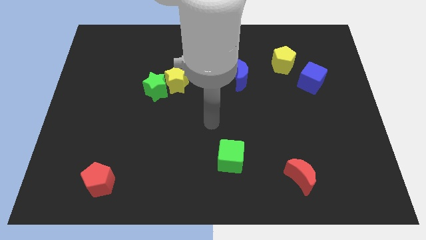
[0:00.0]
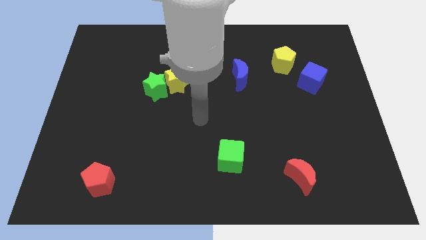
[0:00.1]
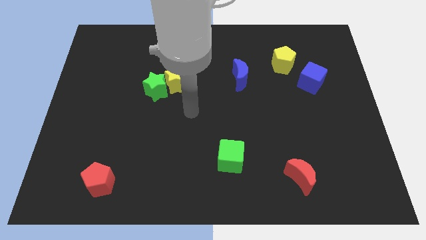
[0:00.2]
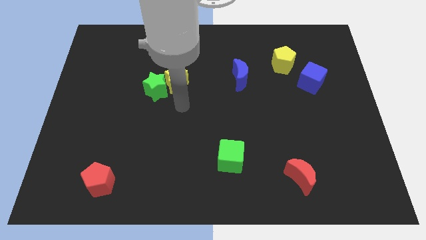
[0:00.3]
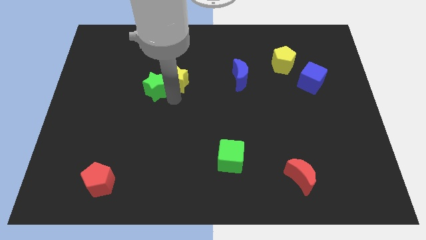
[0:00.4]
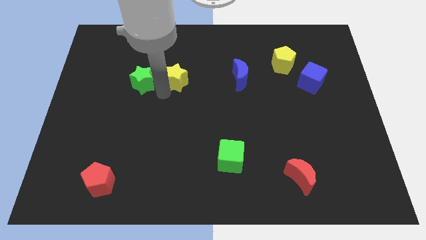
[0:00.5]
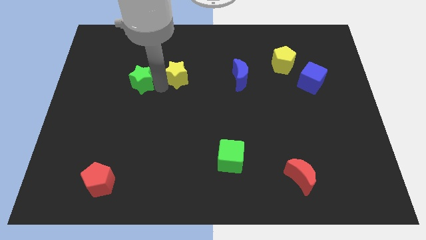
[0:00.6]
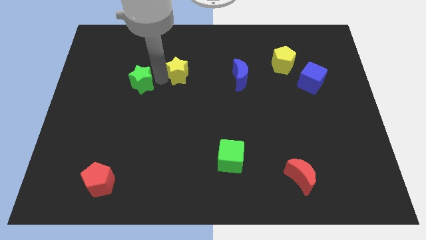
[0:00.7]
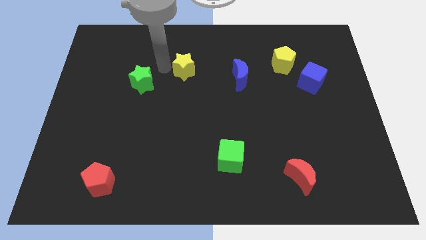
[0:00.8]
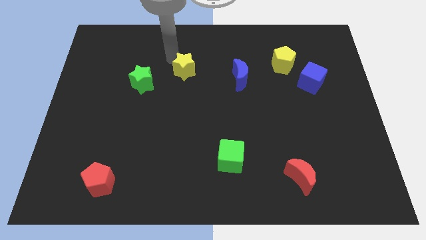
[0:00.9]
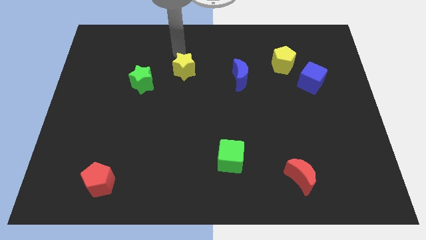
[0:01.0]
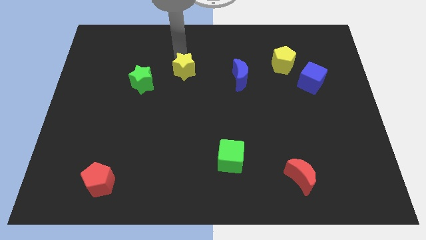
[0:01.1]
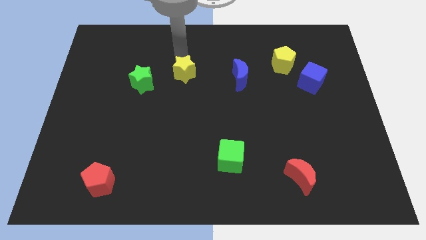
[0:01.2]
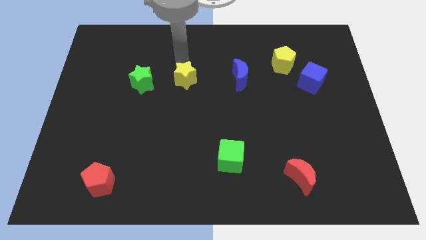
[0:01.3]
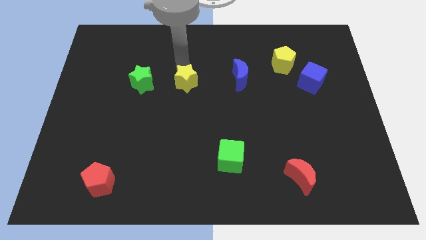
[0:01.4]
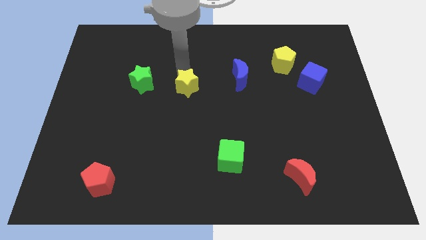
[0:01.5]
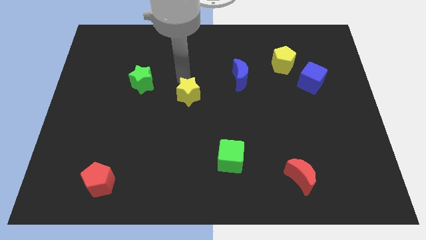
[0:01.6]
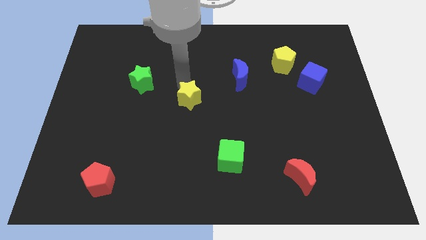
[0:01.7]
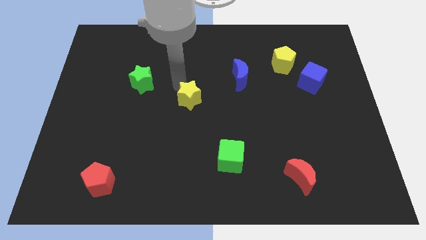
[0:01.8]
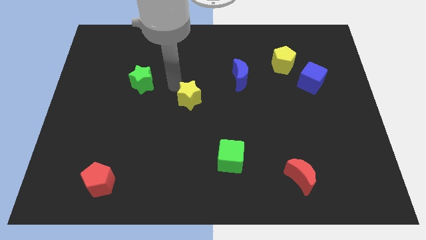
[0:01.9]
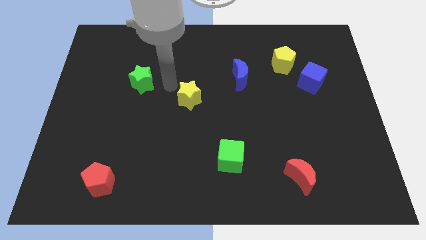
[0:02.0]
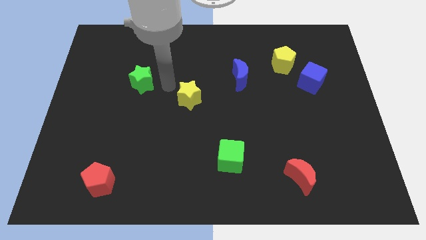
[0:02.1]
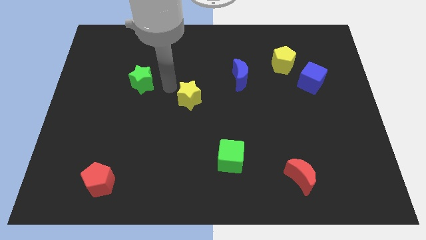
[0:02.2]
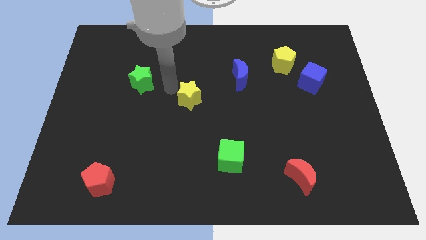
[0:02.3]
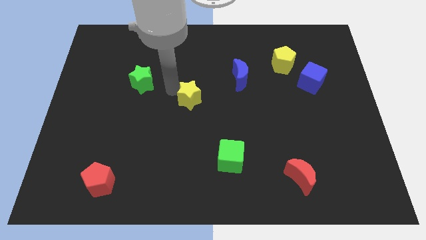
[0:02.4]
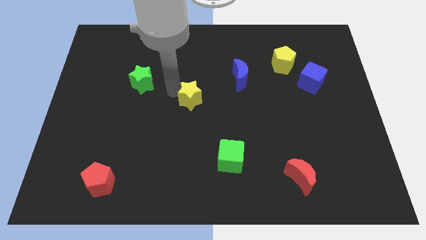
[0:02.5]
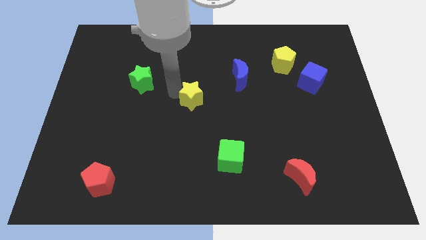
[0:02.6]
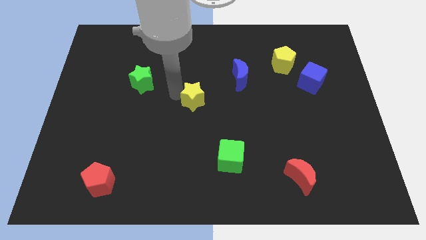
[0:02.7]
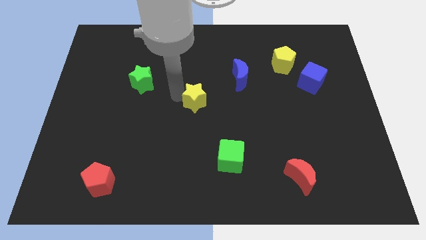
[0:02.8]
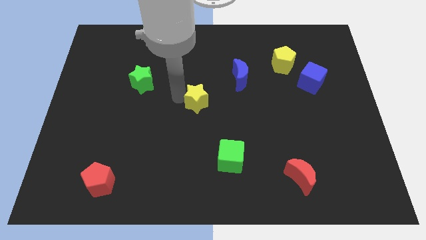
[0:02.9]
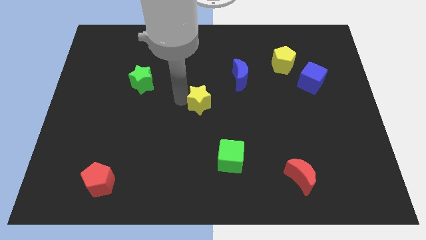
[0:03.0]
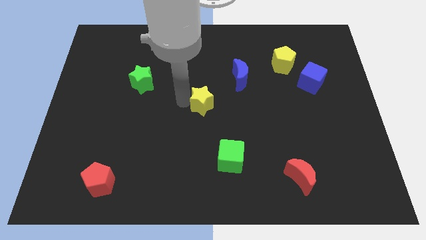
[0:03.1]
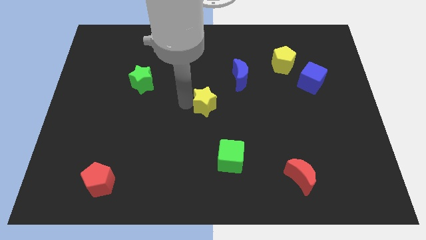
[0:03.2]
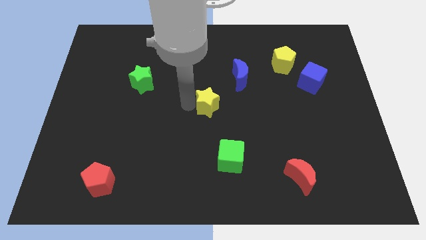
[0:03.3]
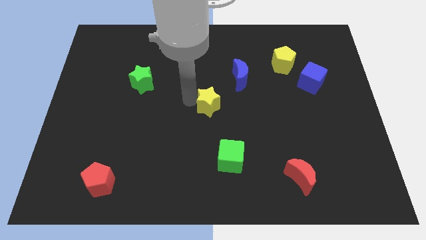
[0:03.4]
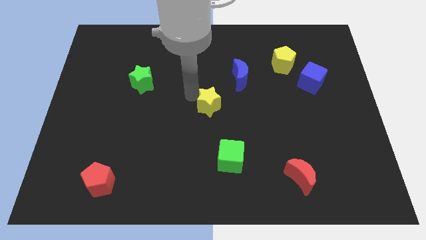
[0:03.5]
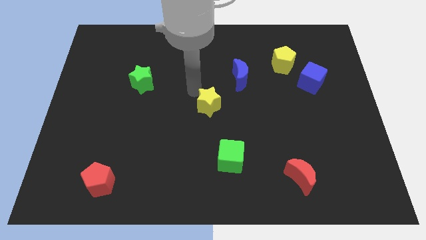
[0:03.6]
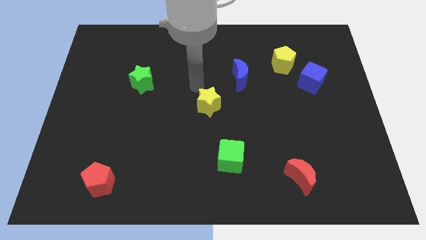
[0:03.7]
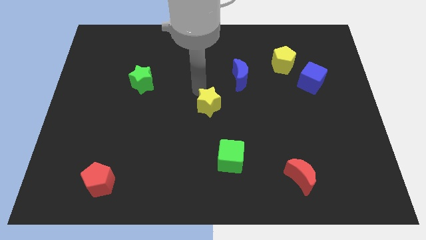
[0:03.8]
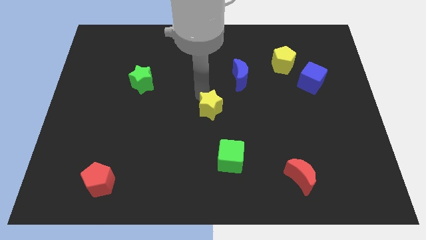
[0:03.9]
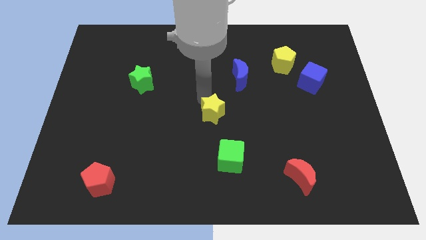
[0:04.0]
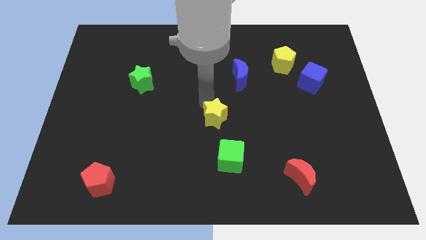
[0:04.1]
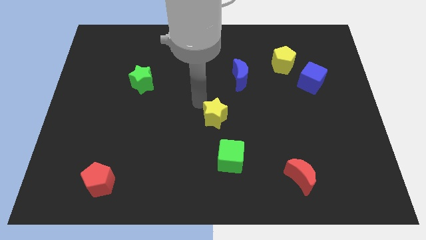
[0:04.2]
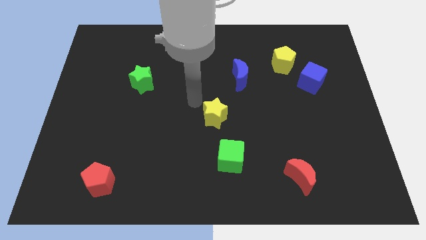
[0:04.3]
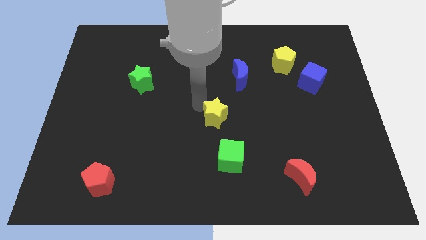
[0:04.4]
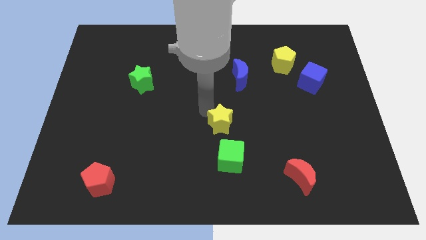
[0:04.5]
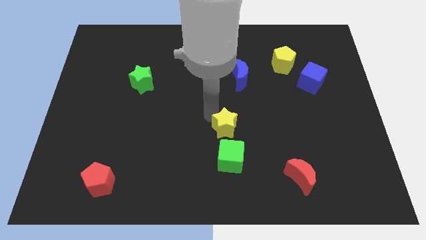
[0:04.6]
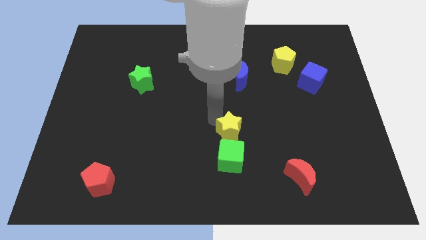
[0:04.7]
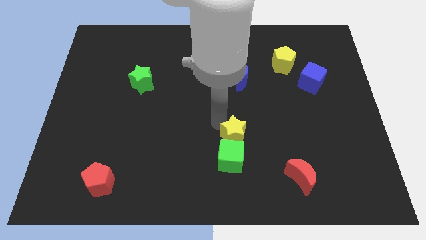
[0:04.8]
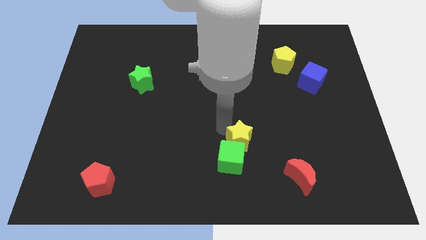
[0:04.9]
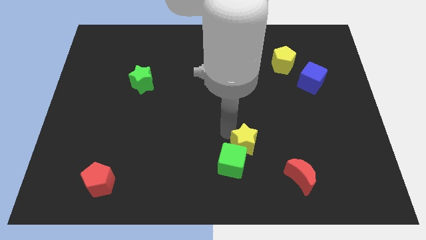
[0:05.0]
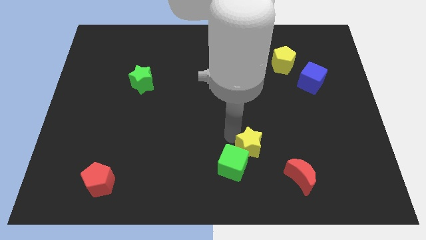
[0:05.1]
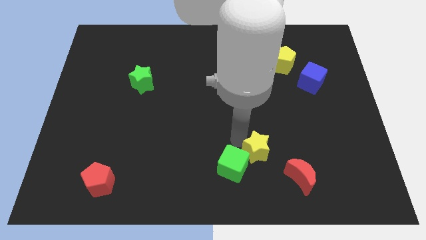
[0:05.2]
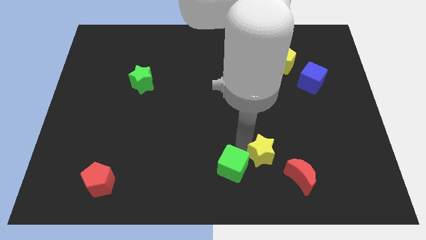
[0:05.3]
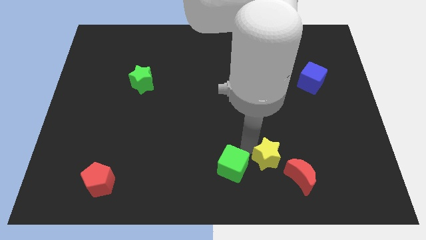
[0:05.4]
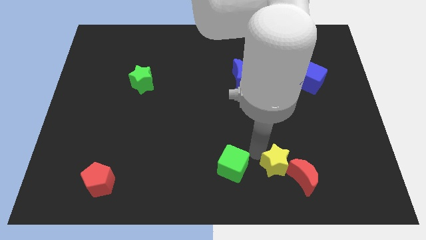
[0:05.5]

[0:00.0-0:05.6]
push the yellow star close to the red moon

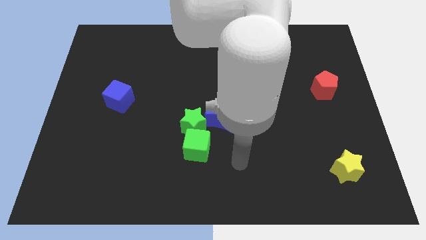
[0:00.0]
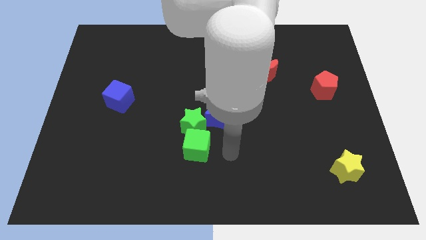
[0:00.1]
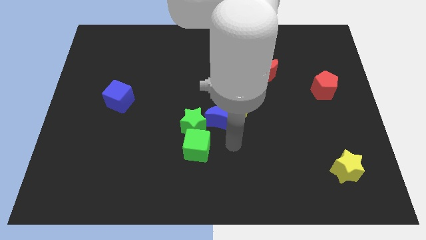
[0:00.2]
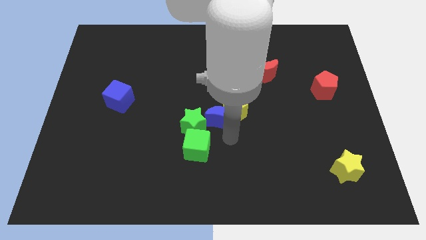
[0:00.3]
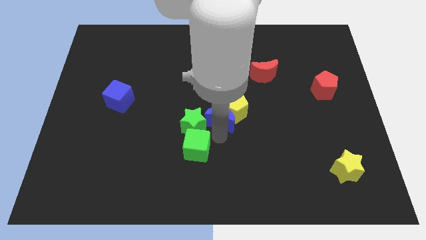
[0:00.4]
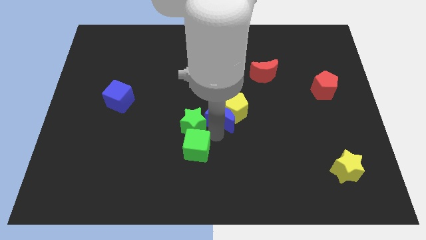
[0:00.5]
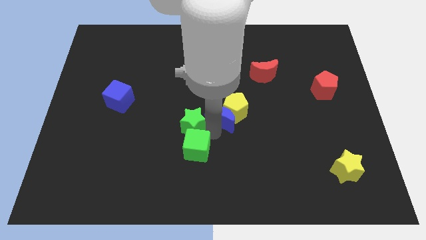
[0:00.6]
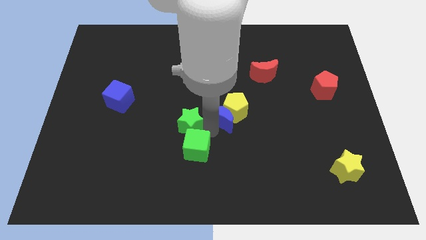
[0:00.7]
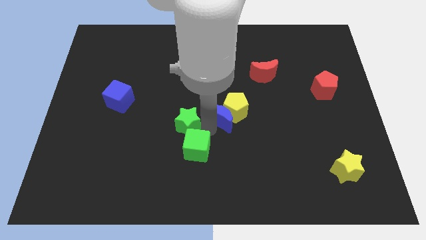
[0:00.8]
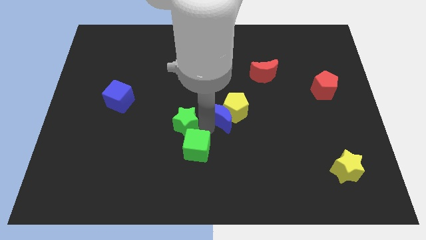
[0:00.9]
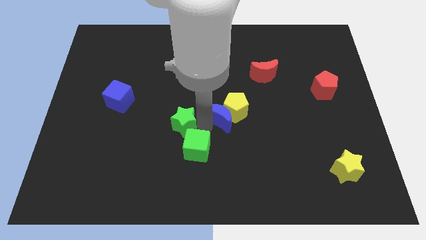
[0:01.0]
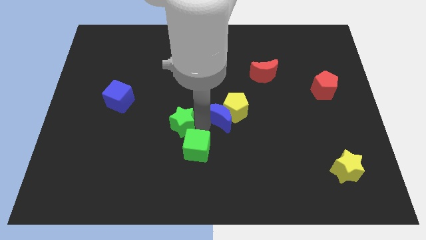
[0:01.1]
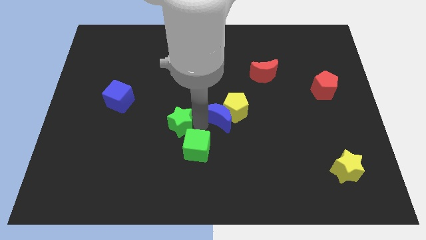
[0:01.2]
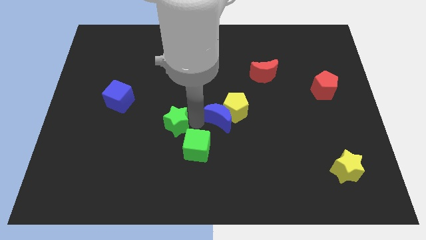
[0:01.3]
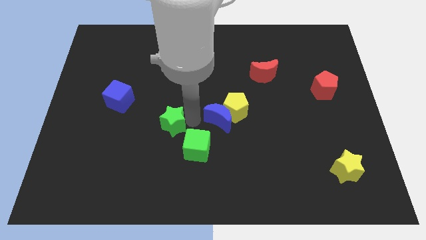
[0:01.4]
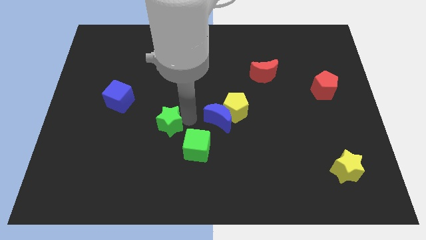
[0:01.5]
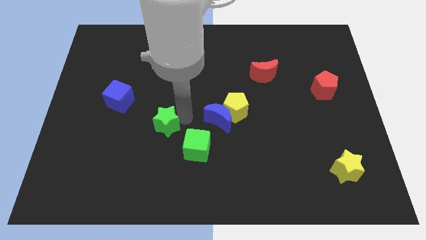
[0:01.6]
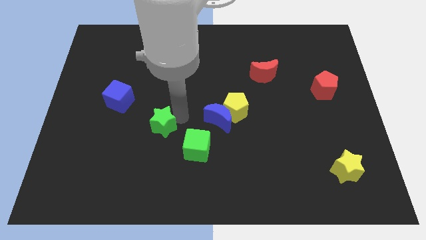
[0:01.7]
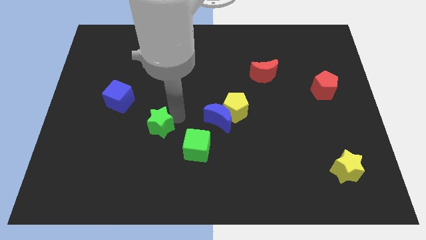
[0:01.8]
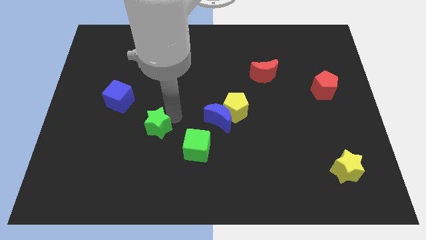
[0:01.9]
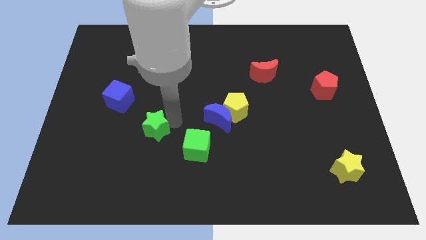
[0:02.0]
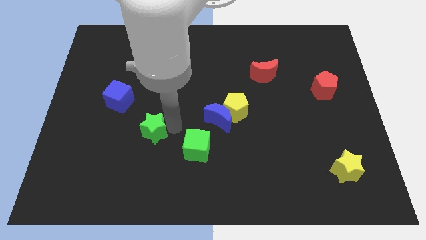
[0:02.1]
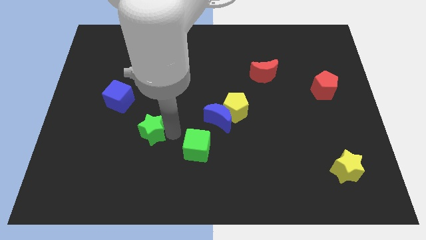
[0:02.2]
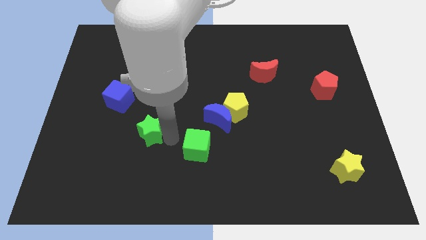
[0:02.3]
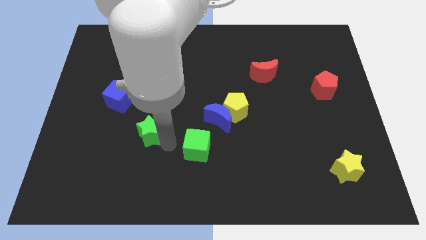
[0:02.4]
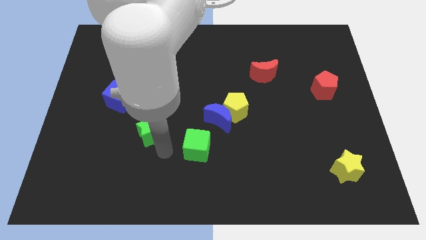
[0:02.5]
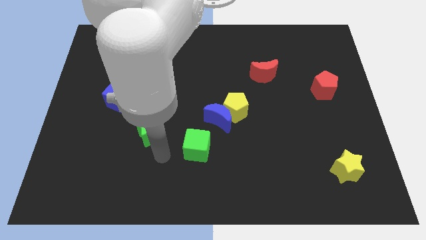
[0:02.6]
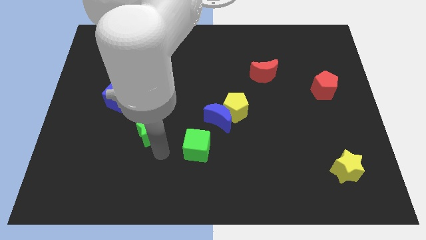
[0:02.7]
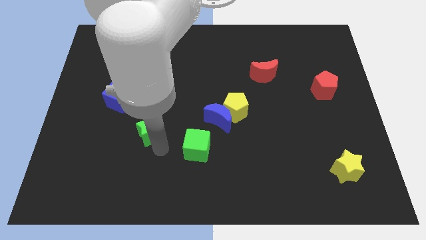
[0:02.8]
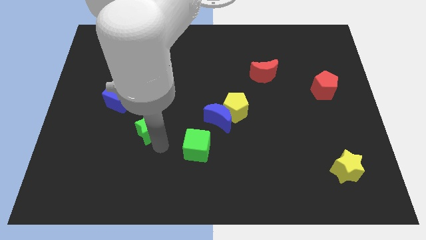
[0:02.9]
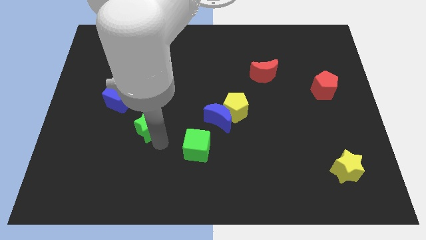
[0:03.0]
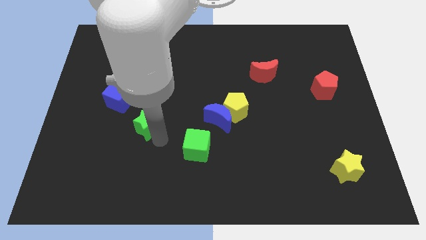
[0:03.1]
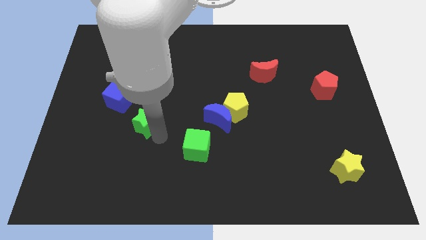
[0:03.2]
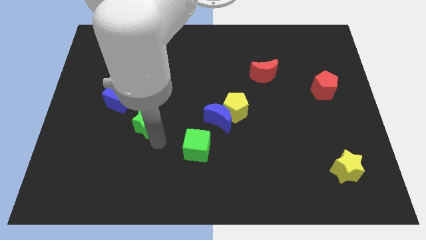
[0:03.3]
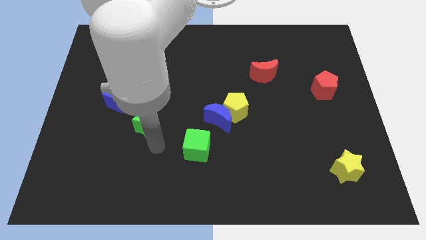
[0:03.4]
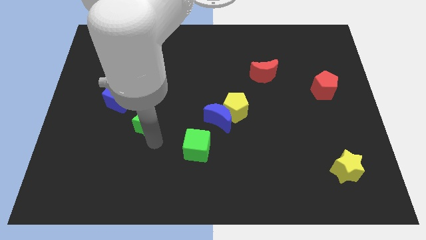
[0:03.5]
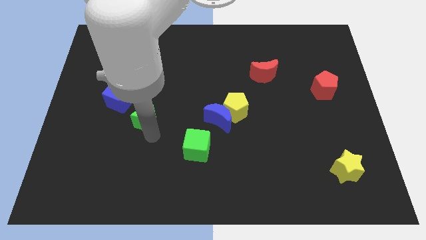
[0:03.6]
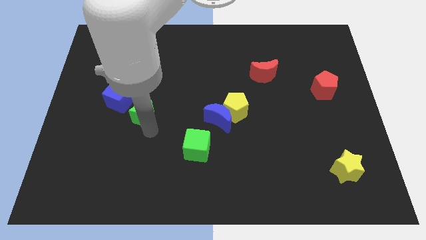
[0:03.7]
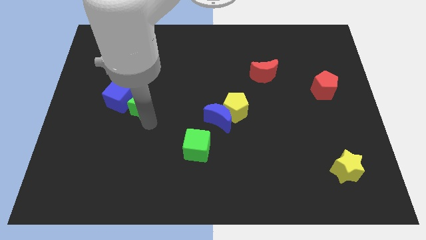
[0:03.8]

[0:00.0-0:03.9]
slide the green star close to the blue cube
